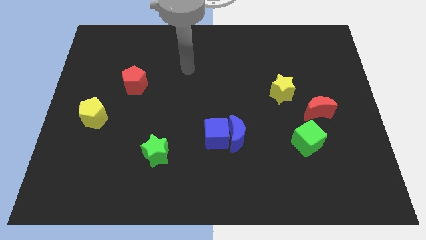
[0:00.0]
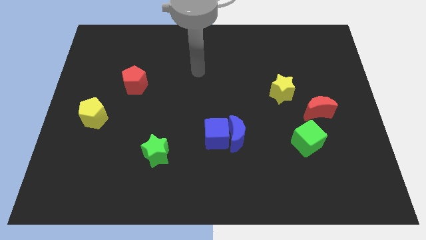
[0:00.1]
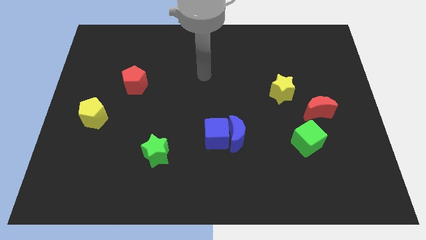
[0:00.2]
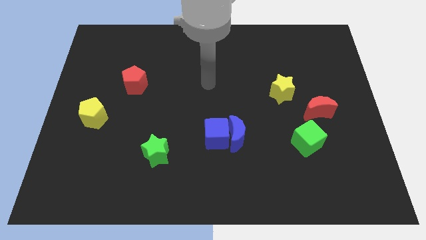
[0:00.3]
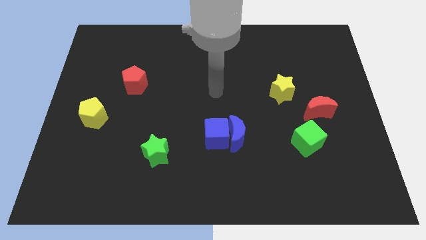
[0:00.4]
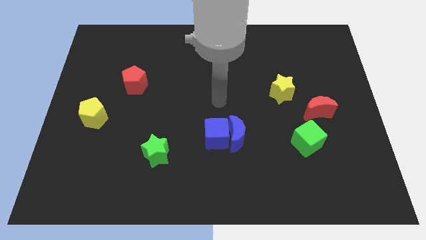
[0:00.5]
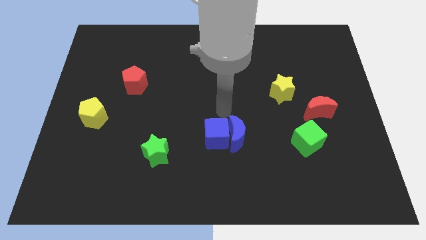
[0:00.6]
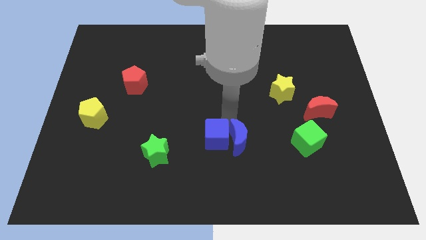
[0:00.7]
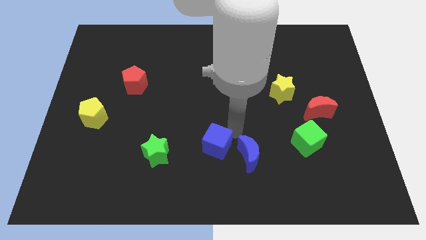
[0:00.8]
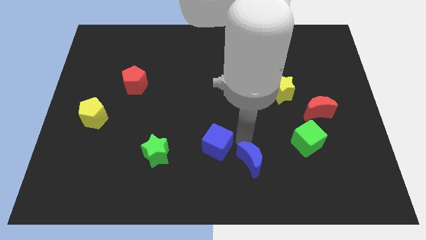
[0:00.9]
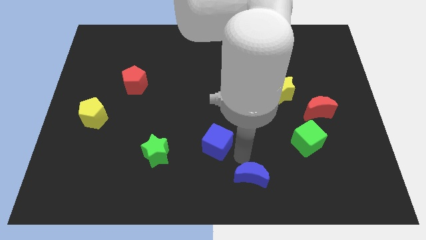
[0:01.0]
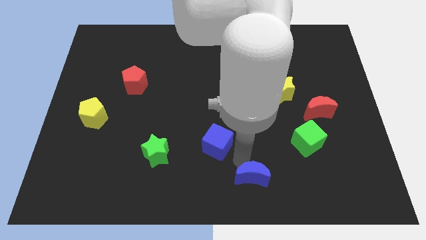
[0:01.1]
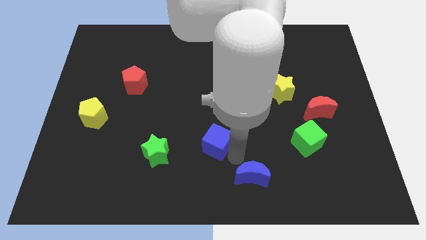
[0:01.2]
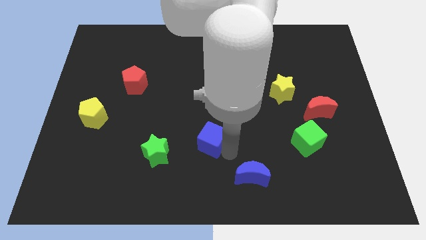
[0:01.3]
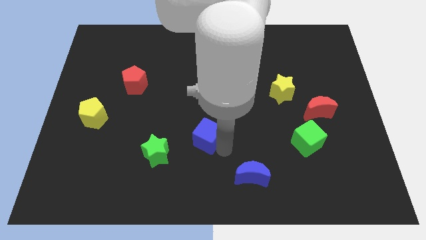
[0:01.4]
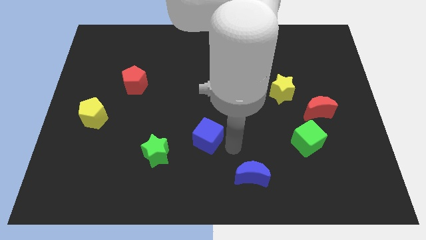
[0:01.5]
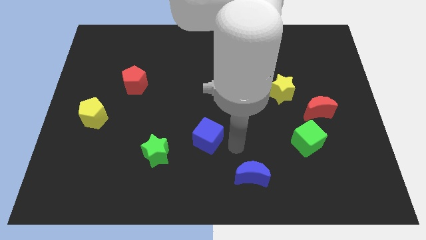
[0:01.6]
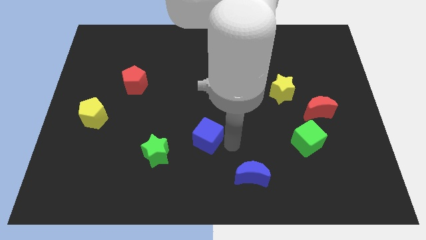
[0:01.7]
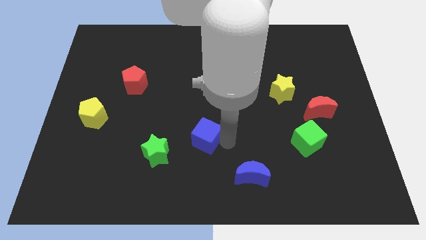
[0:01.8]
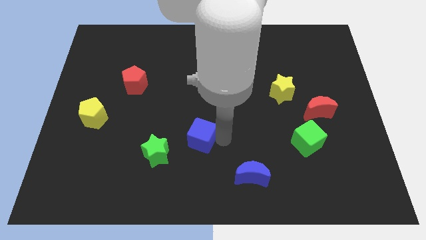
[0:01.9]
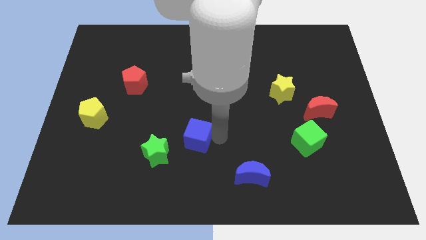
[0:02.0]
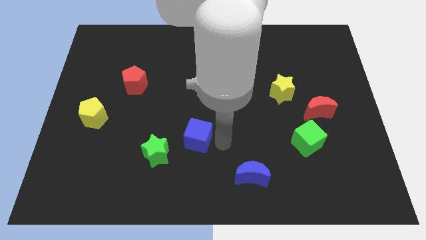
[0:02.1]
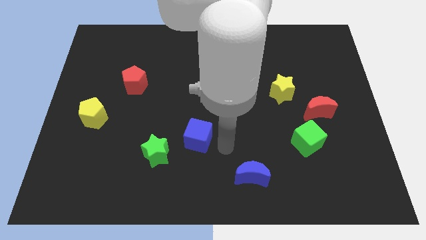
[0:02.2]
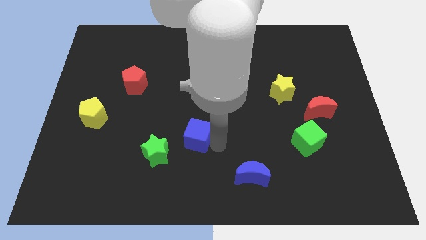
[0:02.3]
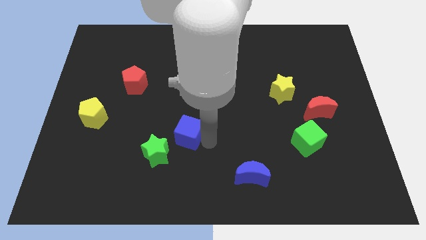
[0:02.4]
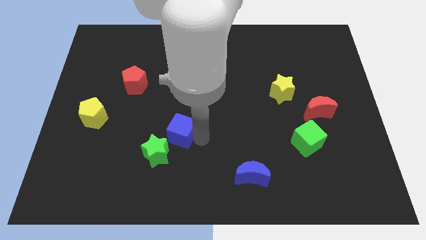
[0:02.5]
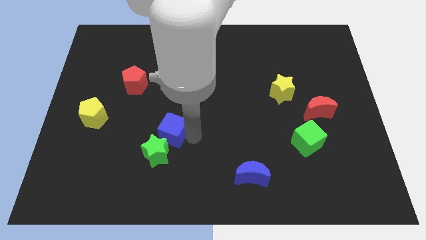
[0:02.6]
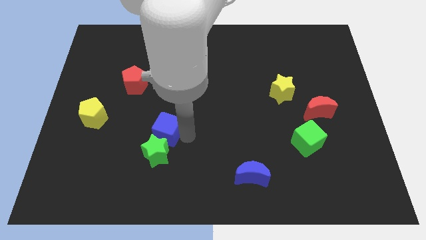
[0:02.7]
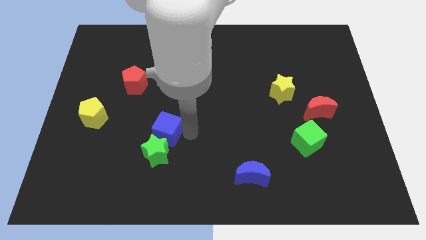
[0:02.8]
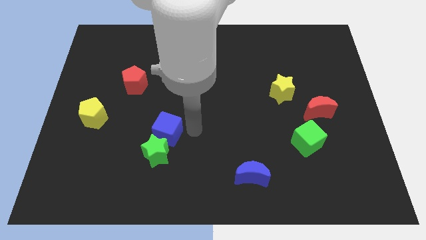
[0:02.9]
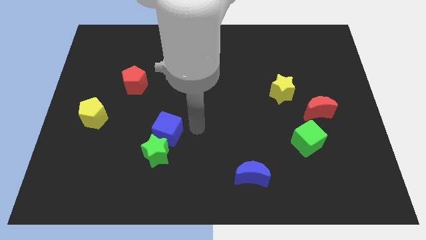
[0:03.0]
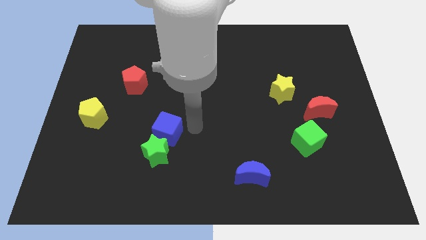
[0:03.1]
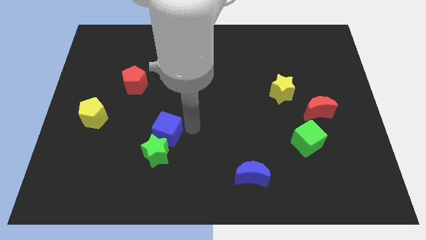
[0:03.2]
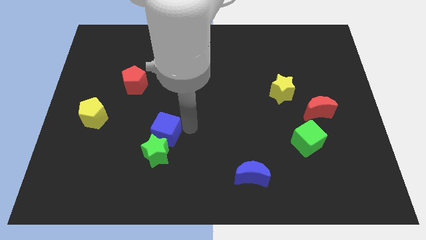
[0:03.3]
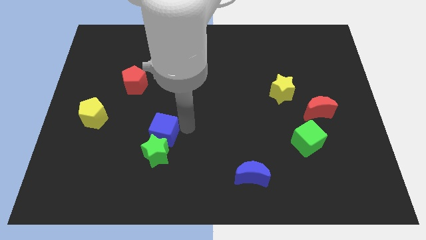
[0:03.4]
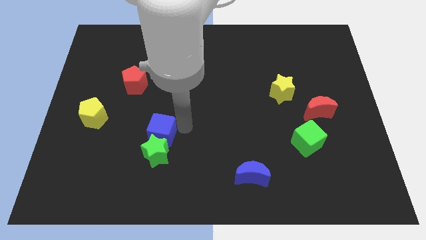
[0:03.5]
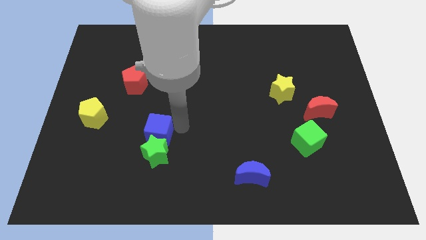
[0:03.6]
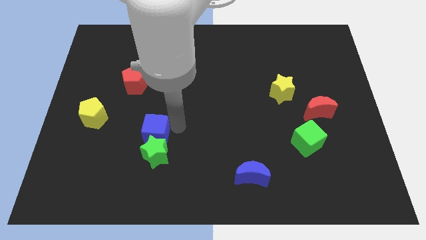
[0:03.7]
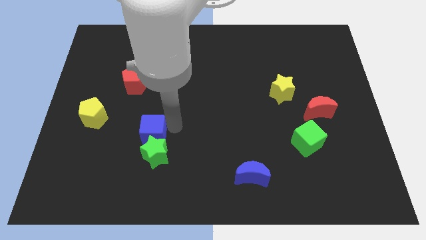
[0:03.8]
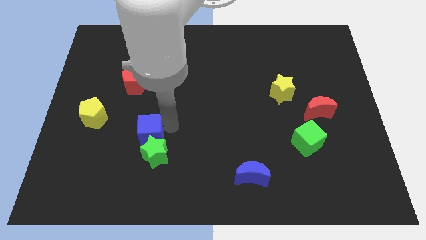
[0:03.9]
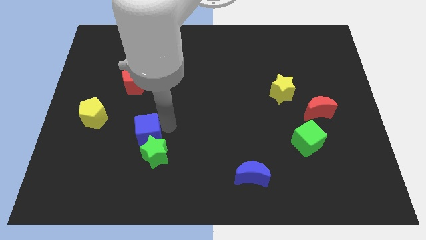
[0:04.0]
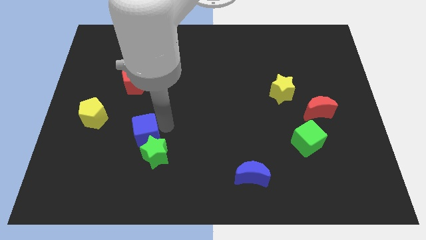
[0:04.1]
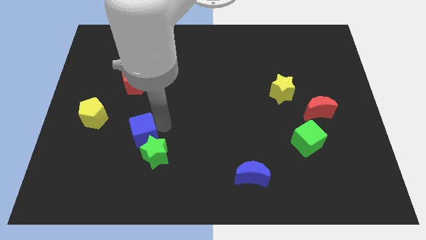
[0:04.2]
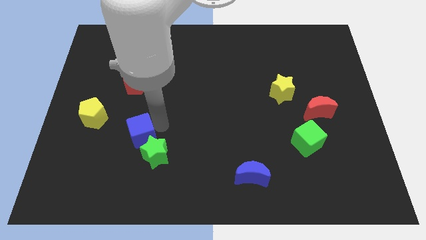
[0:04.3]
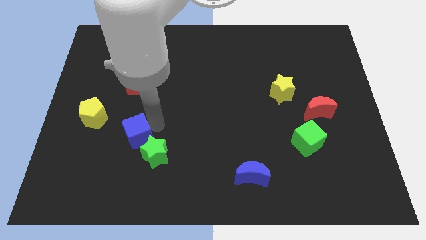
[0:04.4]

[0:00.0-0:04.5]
push the blue cube just left of the green star

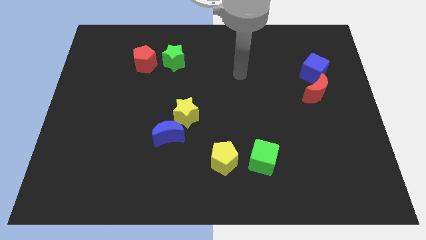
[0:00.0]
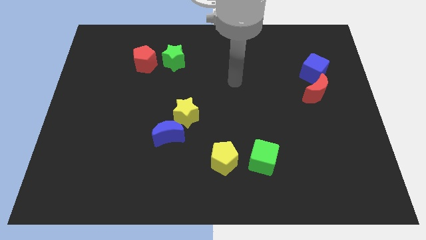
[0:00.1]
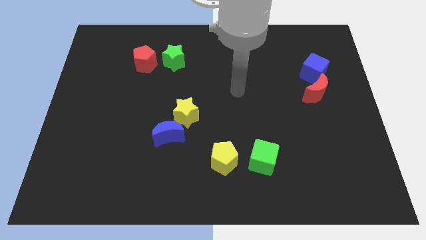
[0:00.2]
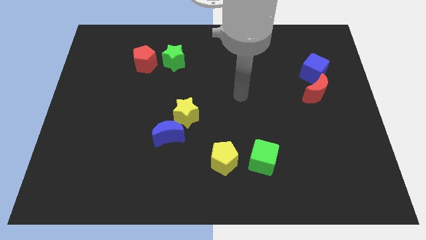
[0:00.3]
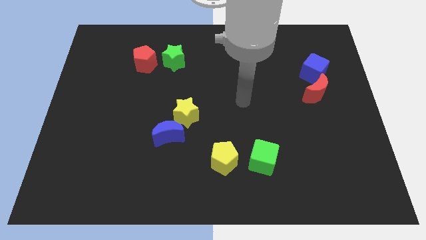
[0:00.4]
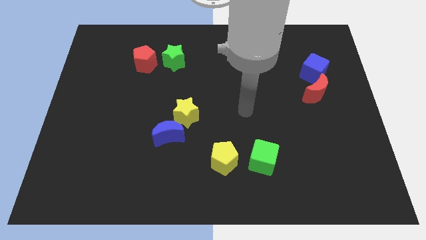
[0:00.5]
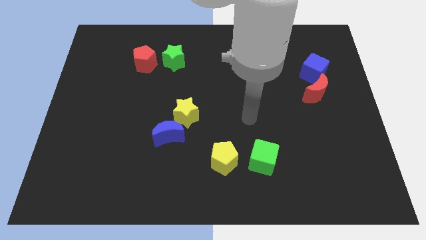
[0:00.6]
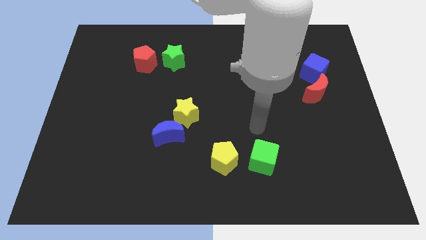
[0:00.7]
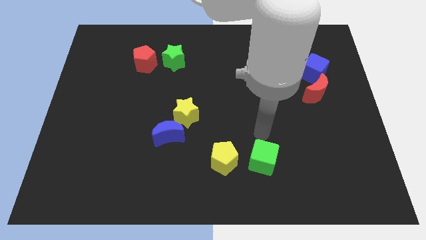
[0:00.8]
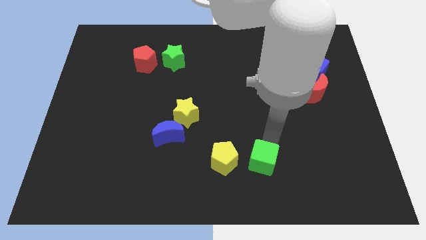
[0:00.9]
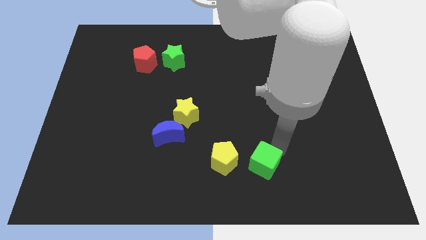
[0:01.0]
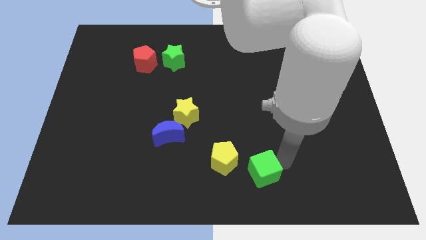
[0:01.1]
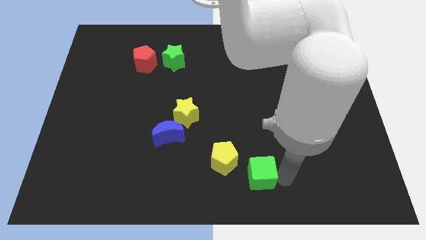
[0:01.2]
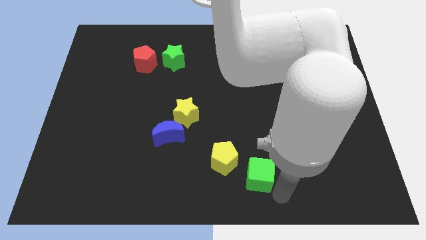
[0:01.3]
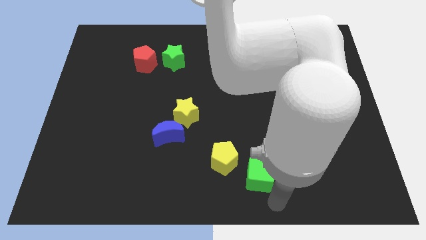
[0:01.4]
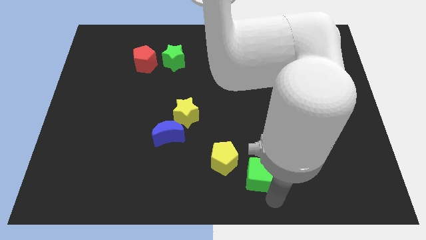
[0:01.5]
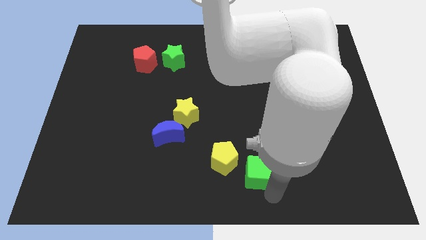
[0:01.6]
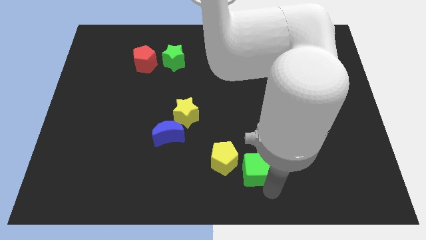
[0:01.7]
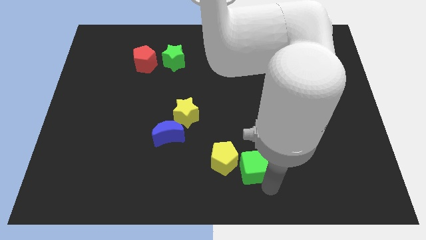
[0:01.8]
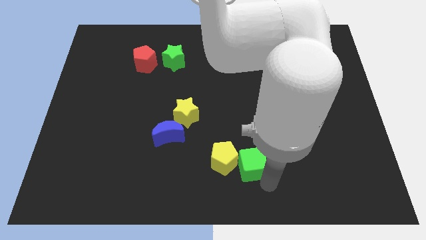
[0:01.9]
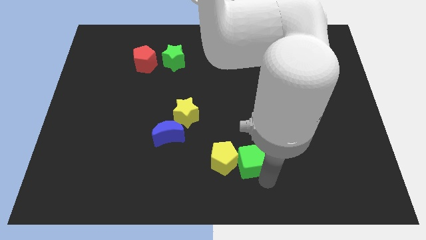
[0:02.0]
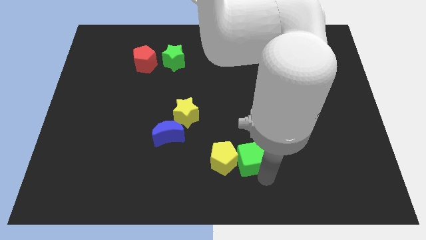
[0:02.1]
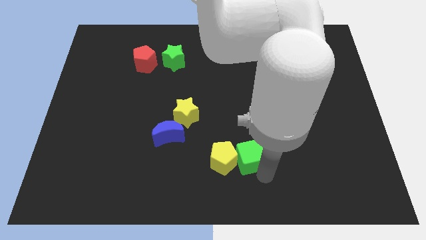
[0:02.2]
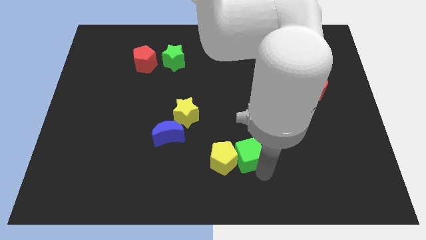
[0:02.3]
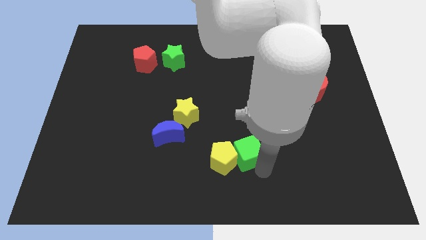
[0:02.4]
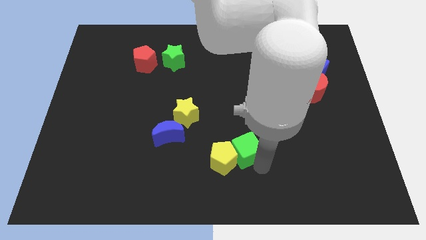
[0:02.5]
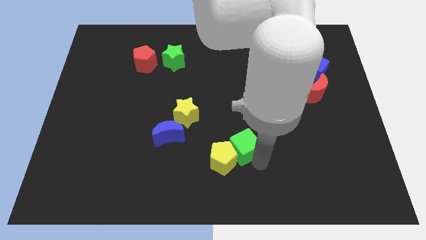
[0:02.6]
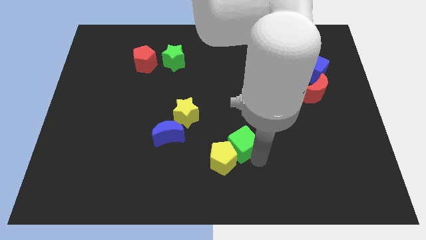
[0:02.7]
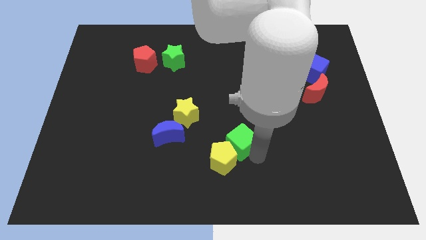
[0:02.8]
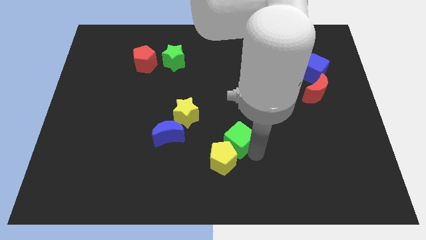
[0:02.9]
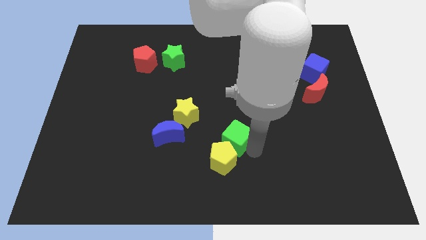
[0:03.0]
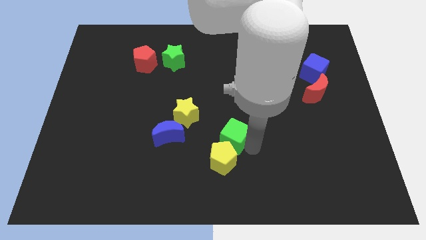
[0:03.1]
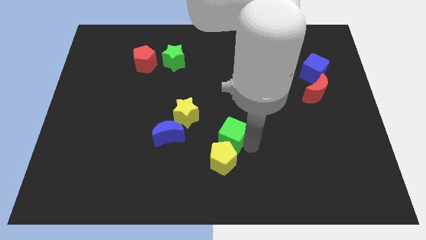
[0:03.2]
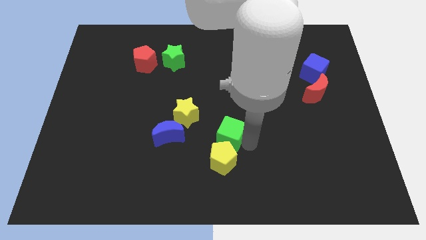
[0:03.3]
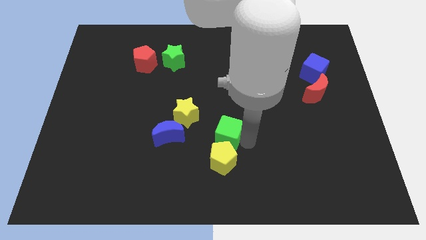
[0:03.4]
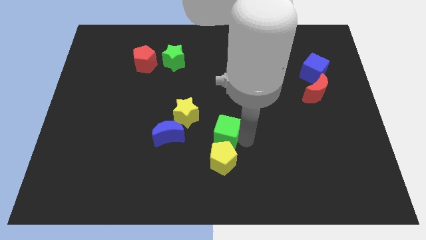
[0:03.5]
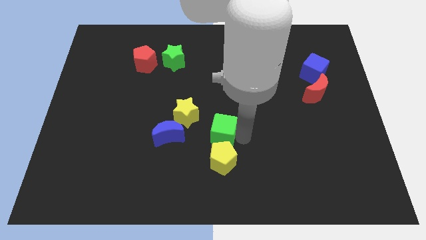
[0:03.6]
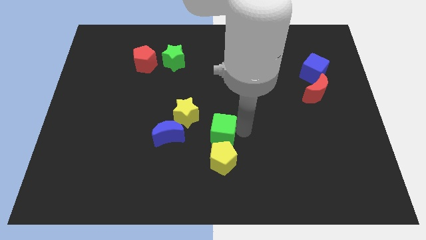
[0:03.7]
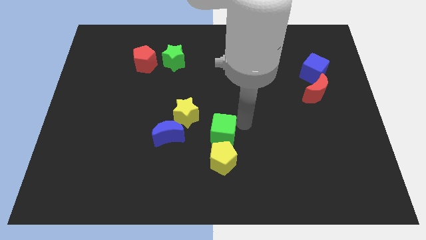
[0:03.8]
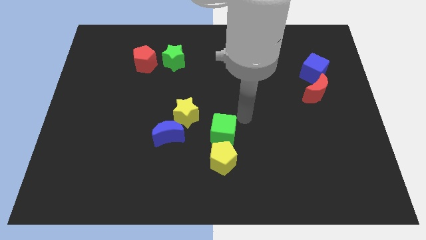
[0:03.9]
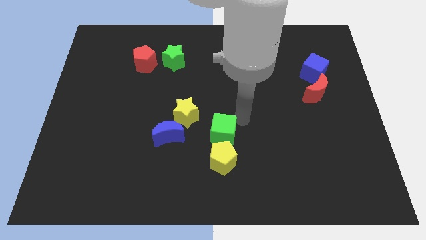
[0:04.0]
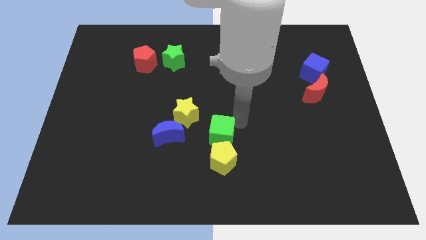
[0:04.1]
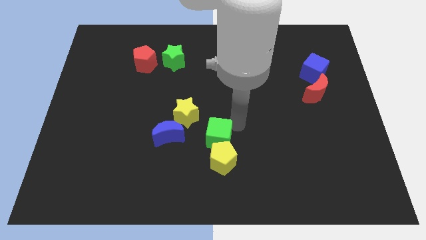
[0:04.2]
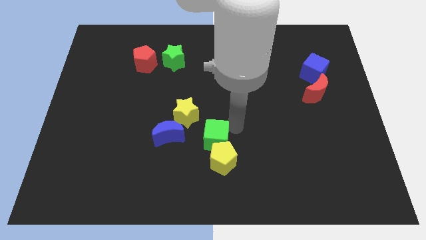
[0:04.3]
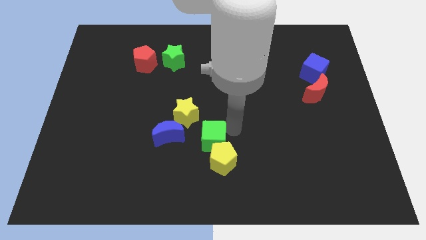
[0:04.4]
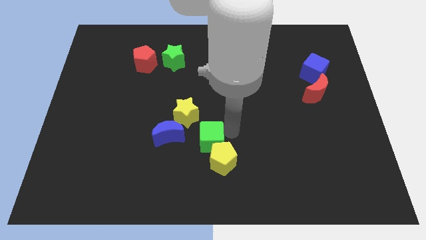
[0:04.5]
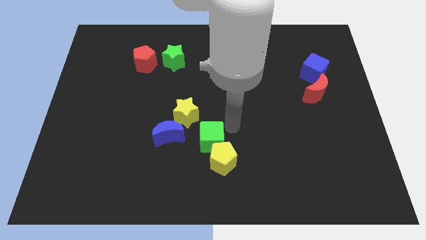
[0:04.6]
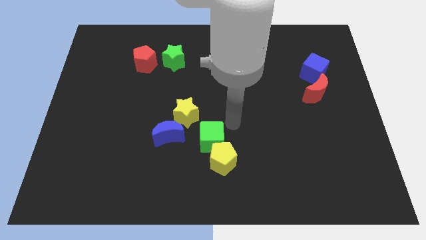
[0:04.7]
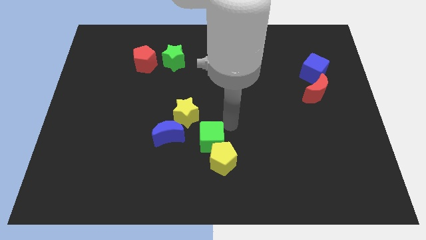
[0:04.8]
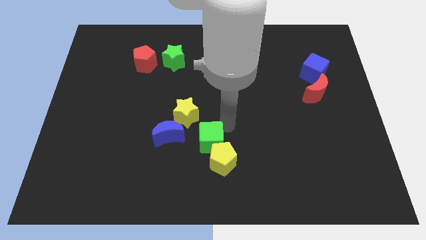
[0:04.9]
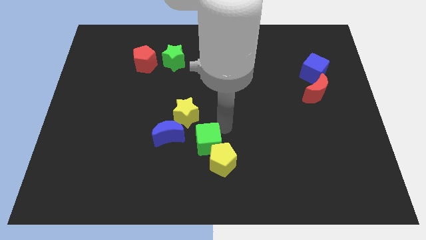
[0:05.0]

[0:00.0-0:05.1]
slide the green cube to the bottom right side of the blue moon
